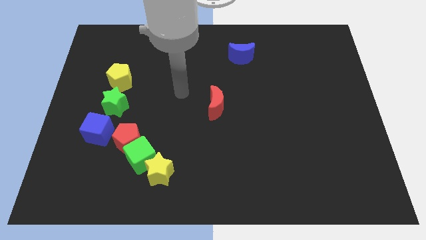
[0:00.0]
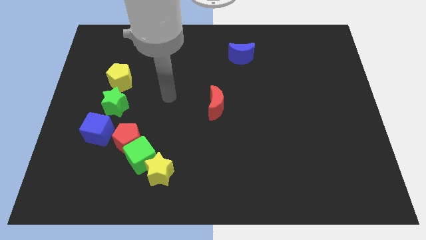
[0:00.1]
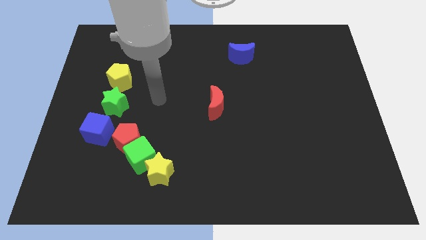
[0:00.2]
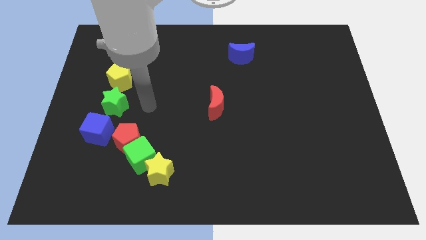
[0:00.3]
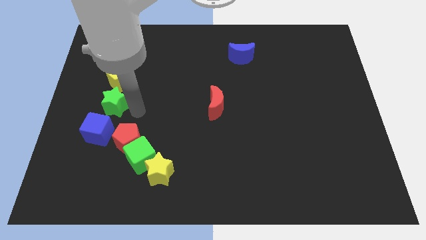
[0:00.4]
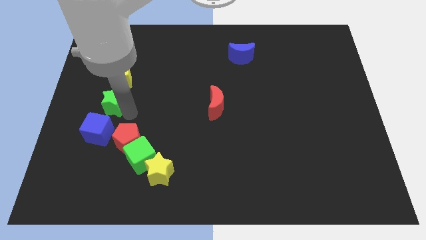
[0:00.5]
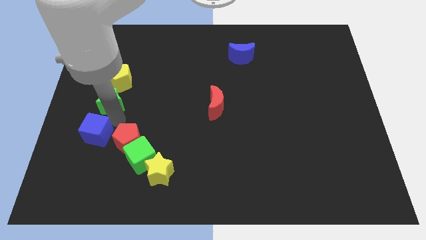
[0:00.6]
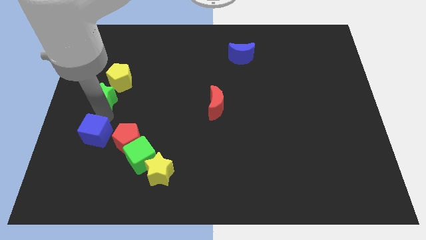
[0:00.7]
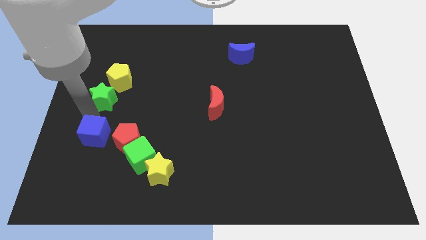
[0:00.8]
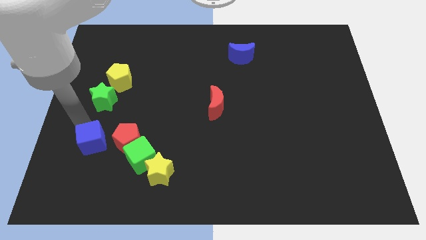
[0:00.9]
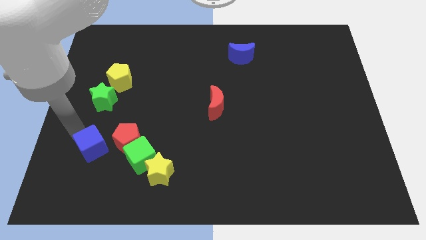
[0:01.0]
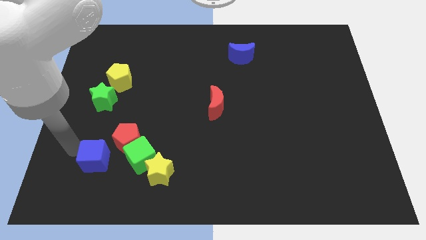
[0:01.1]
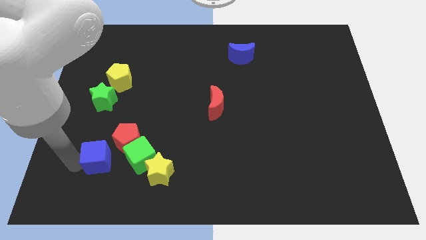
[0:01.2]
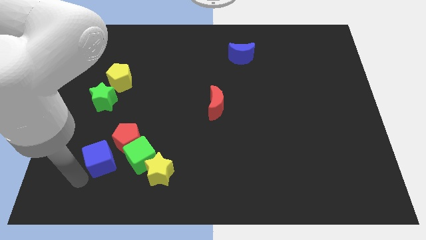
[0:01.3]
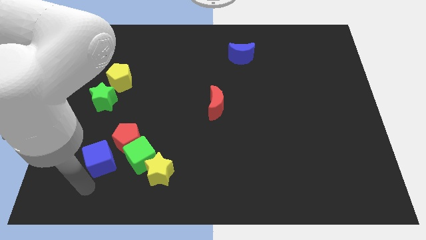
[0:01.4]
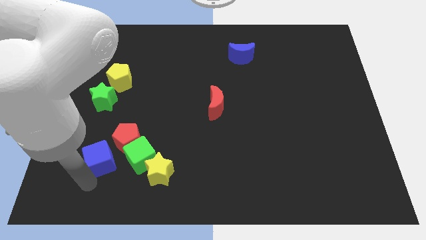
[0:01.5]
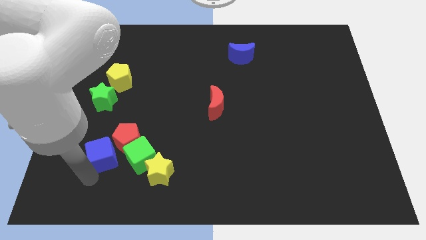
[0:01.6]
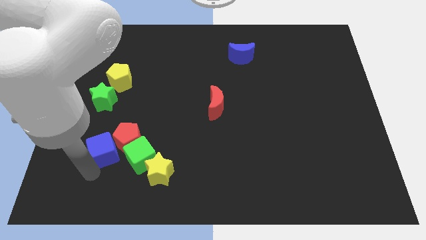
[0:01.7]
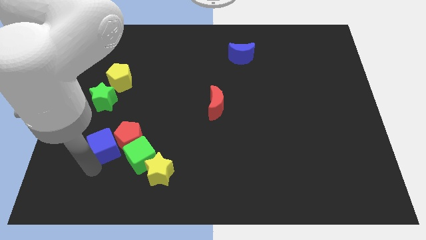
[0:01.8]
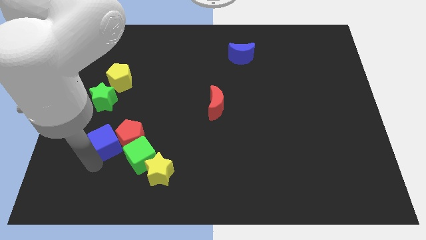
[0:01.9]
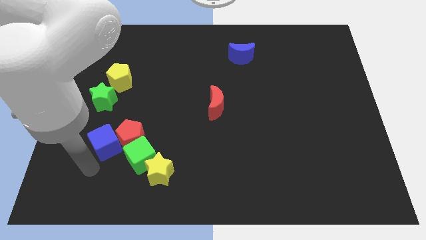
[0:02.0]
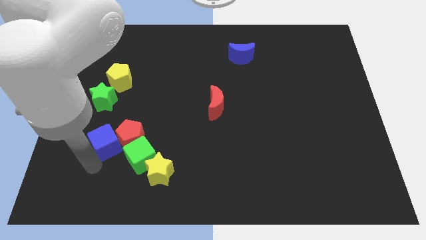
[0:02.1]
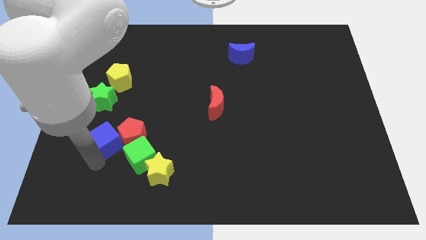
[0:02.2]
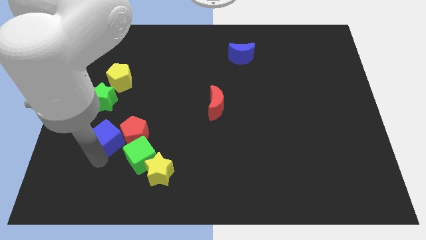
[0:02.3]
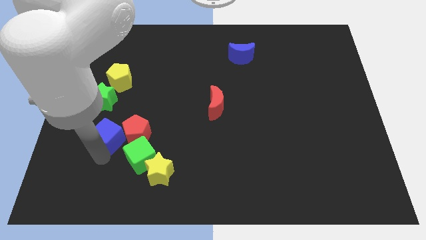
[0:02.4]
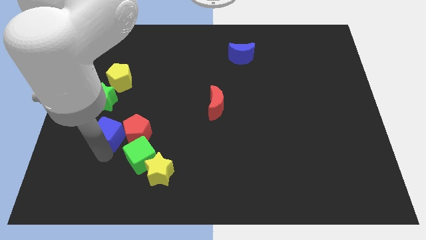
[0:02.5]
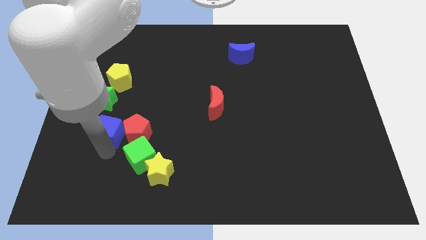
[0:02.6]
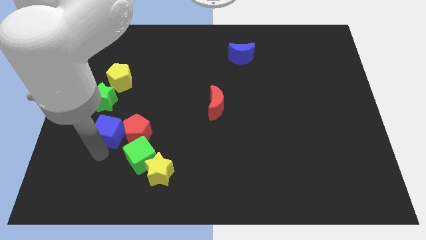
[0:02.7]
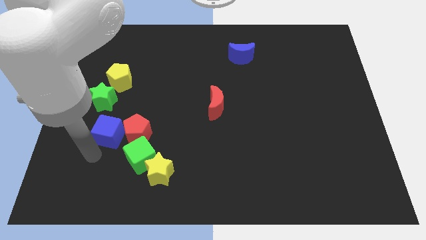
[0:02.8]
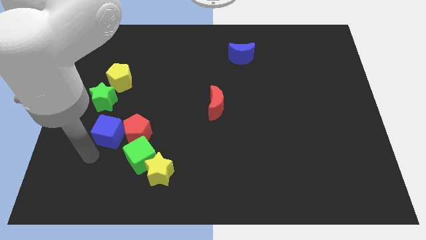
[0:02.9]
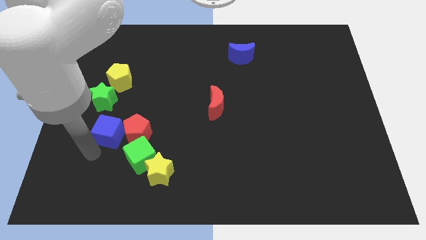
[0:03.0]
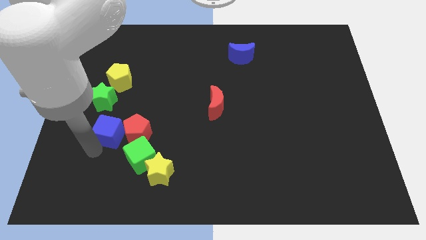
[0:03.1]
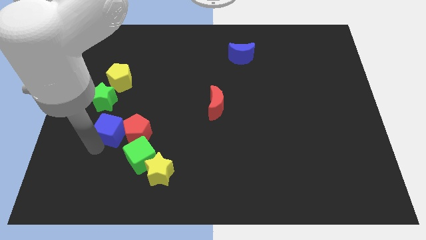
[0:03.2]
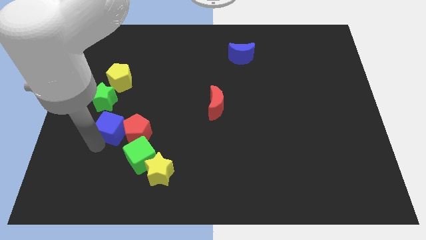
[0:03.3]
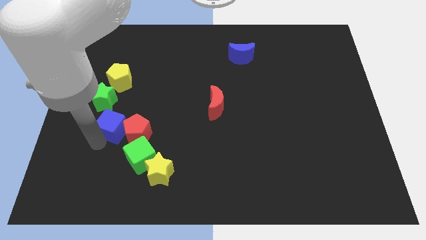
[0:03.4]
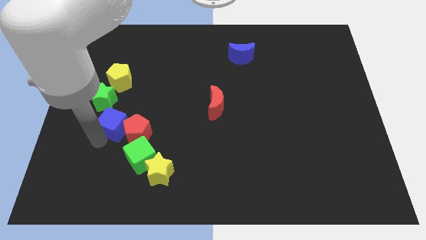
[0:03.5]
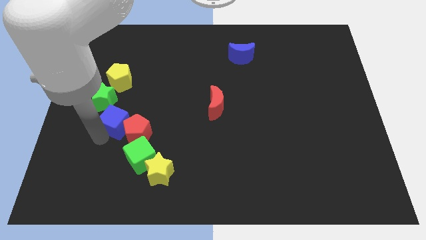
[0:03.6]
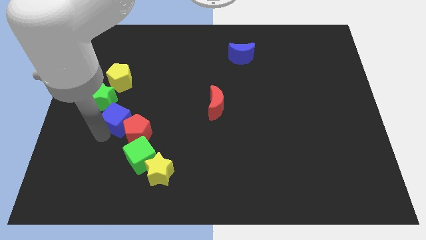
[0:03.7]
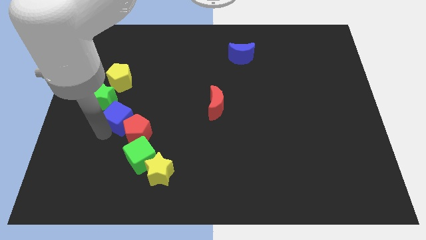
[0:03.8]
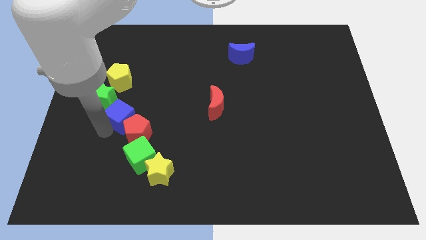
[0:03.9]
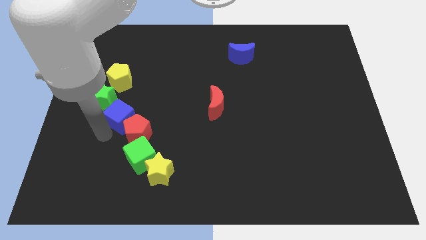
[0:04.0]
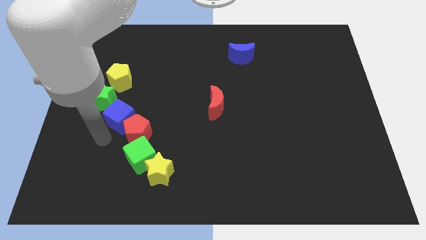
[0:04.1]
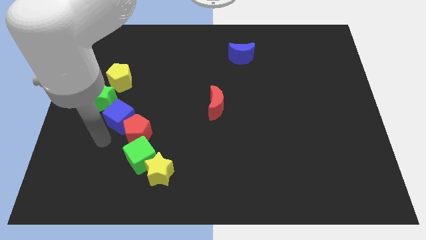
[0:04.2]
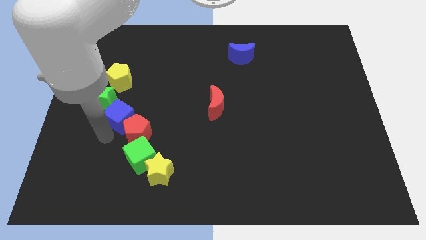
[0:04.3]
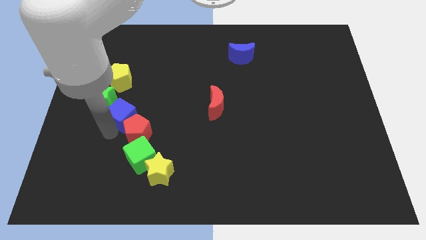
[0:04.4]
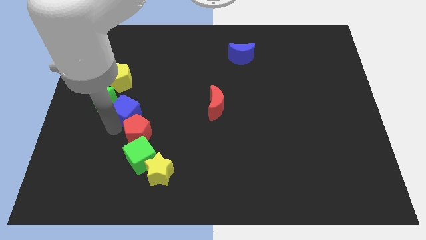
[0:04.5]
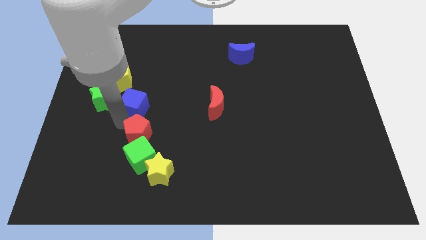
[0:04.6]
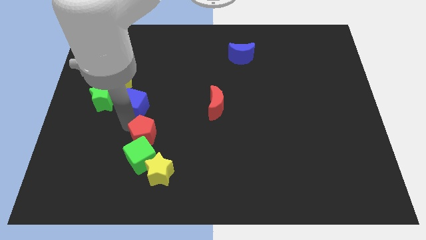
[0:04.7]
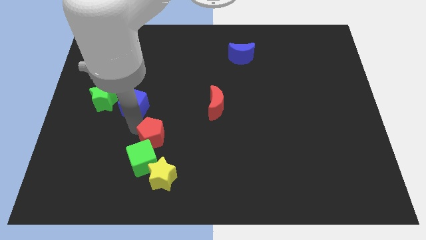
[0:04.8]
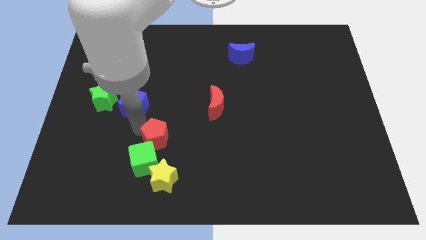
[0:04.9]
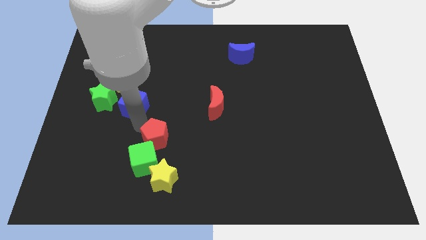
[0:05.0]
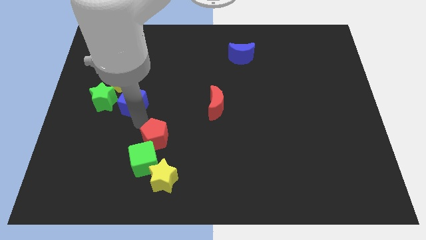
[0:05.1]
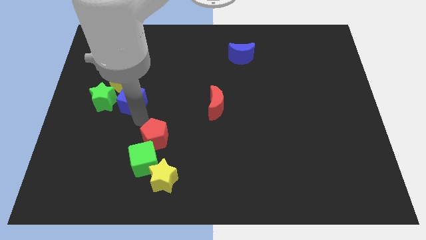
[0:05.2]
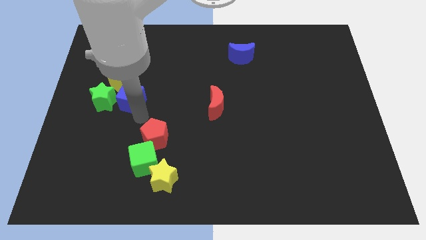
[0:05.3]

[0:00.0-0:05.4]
push the blue cube to the top right side of the green star

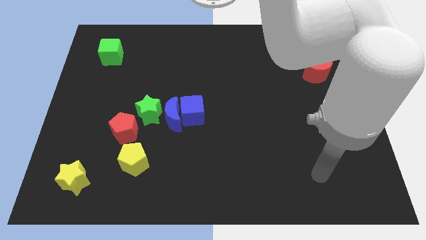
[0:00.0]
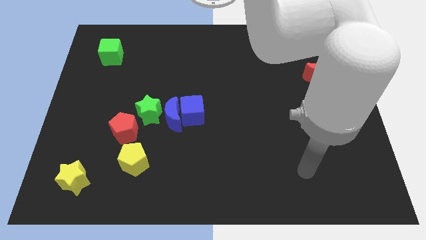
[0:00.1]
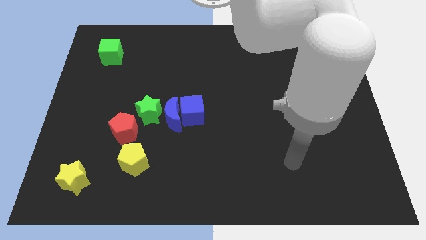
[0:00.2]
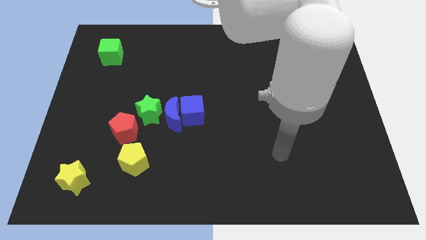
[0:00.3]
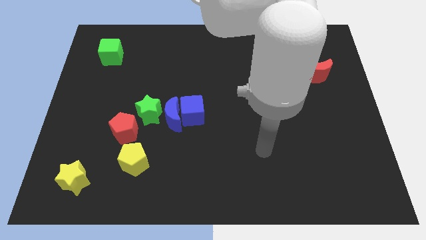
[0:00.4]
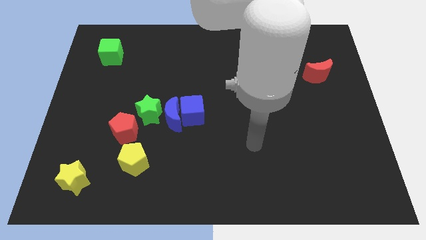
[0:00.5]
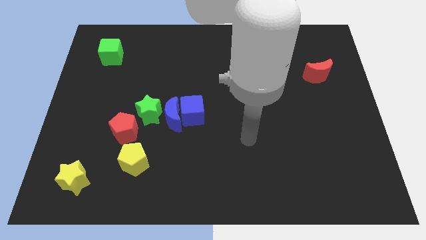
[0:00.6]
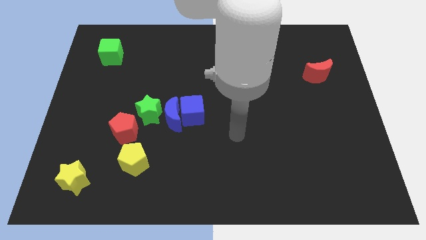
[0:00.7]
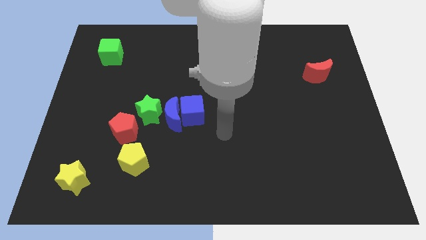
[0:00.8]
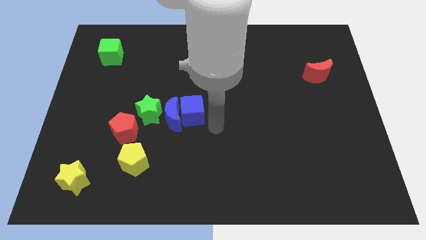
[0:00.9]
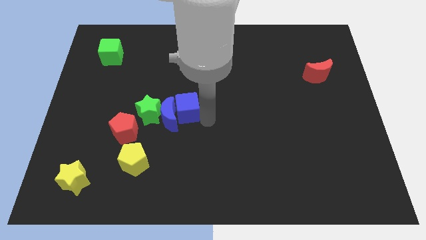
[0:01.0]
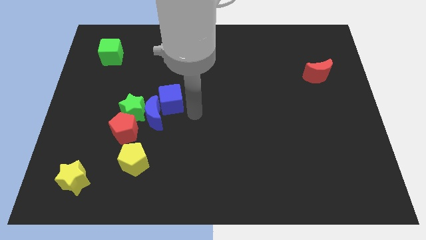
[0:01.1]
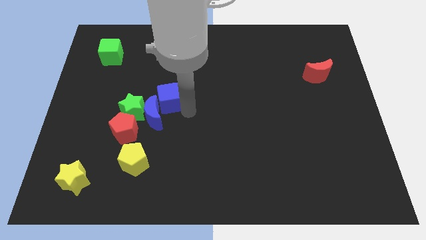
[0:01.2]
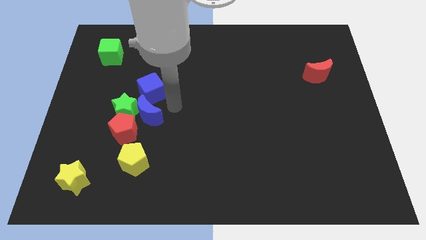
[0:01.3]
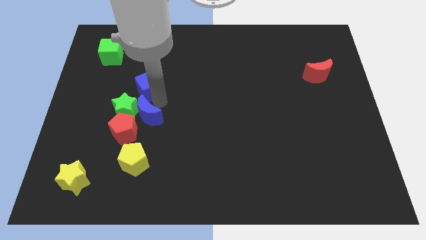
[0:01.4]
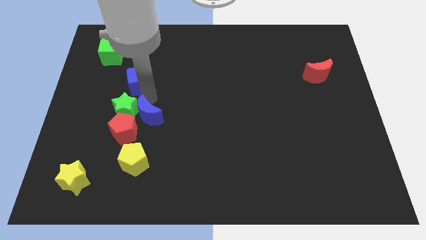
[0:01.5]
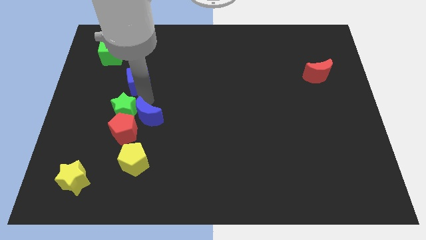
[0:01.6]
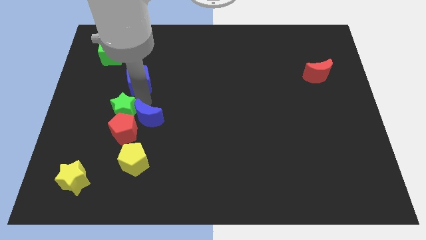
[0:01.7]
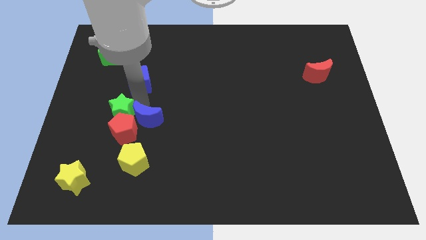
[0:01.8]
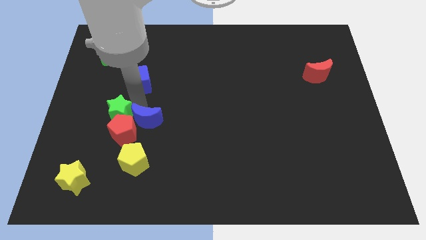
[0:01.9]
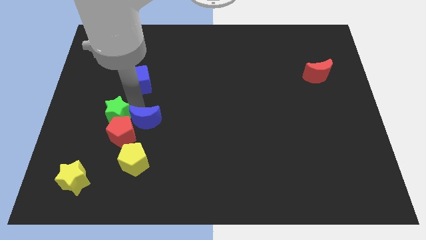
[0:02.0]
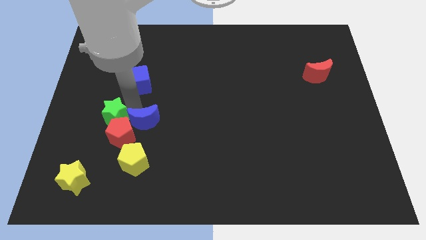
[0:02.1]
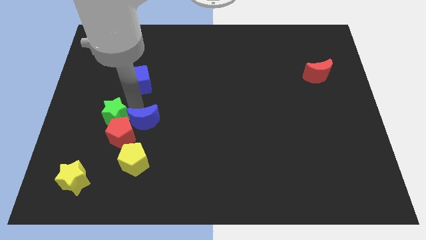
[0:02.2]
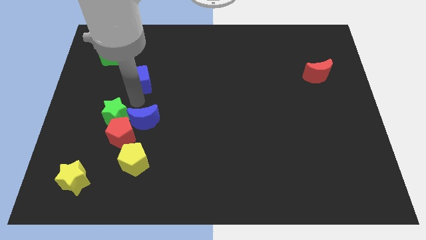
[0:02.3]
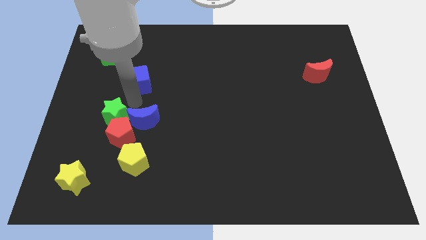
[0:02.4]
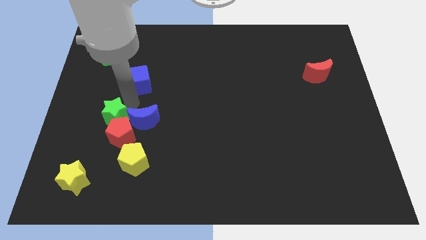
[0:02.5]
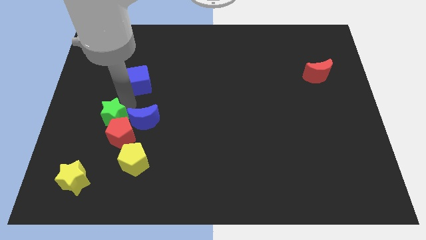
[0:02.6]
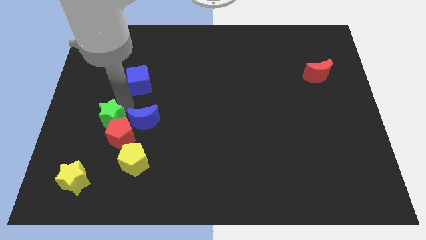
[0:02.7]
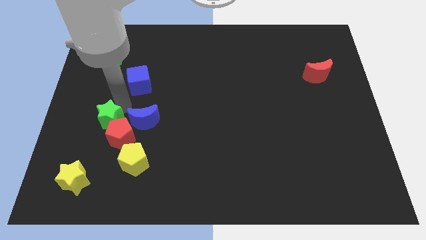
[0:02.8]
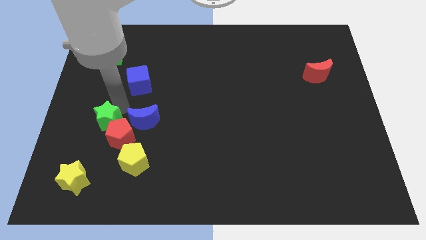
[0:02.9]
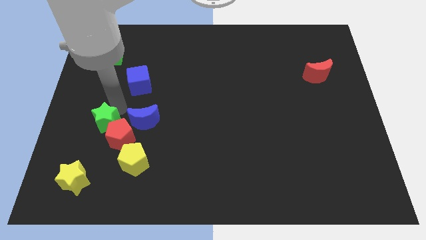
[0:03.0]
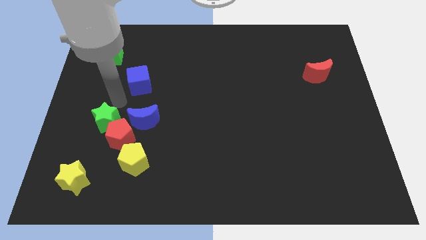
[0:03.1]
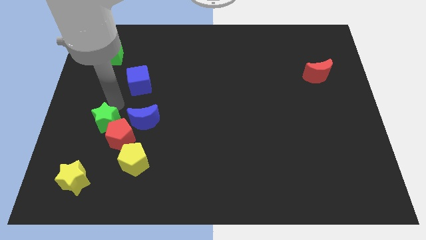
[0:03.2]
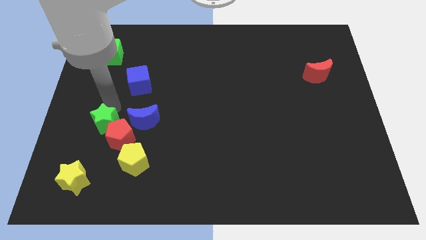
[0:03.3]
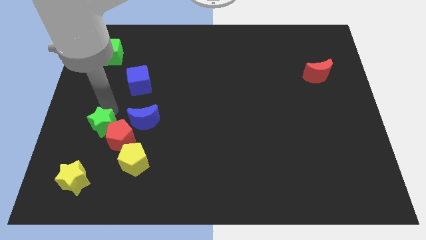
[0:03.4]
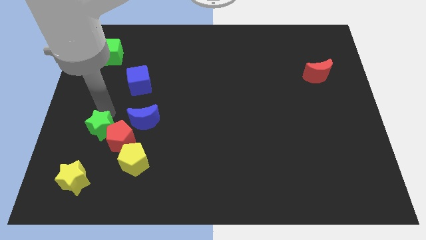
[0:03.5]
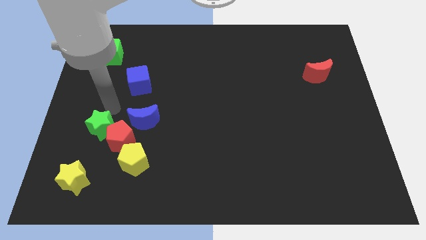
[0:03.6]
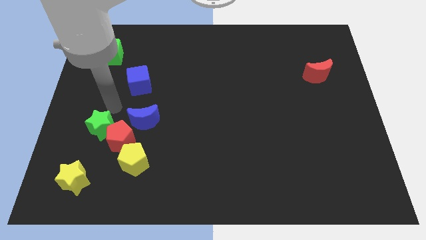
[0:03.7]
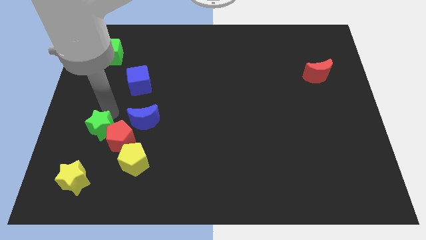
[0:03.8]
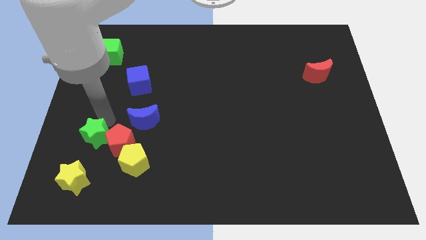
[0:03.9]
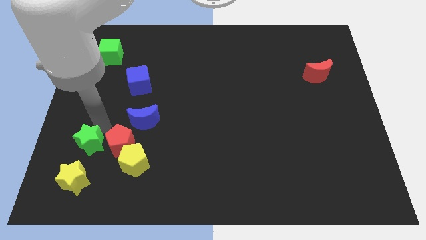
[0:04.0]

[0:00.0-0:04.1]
slide the green star left of the yellow pentagon
